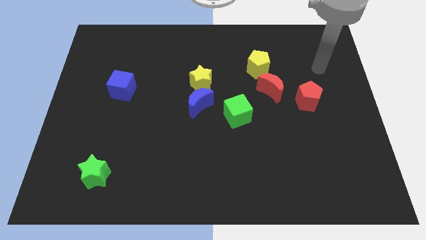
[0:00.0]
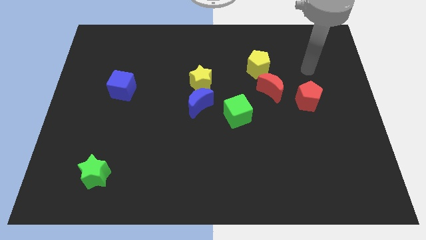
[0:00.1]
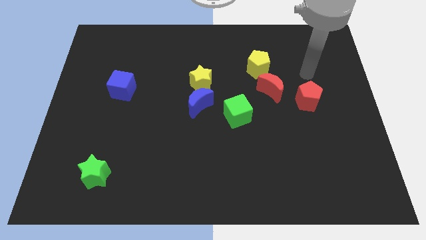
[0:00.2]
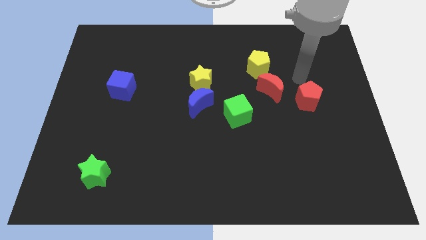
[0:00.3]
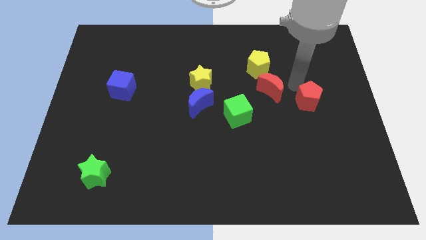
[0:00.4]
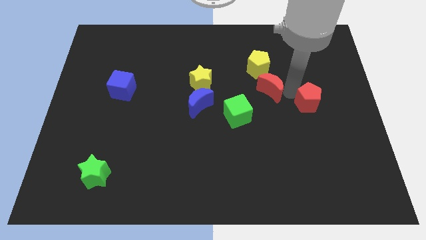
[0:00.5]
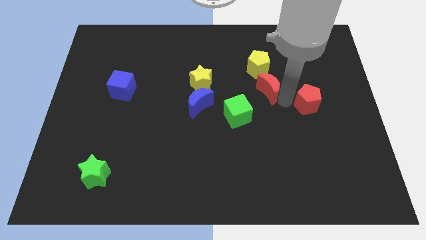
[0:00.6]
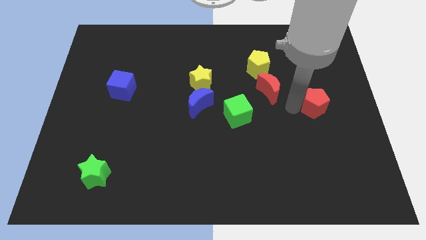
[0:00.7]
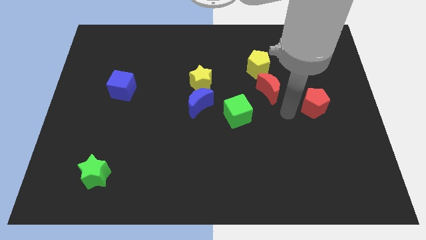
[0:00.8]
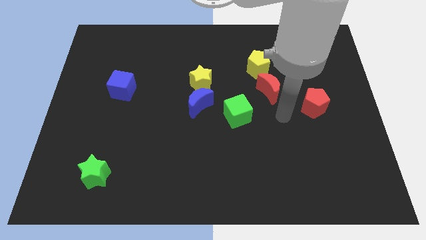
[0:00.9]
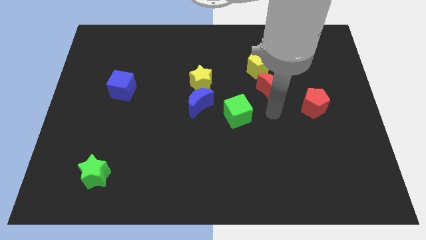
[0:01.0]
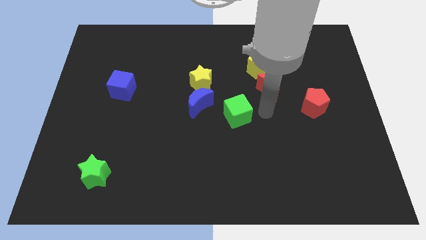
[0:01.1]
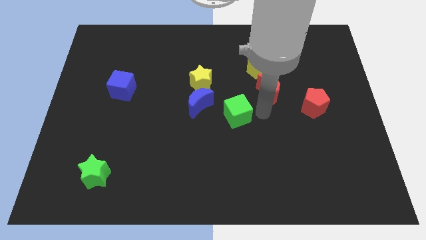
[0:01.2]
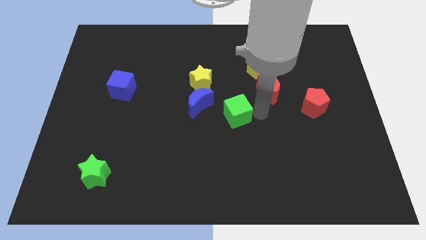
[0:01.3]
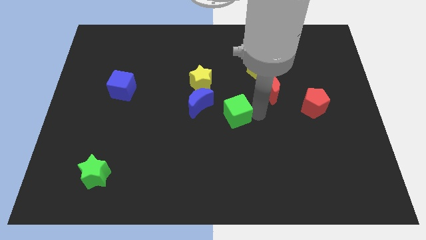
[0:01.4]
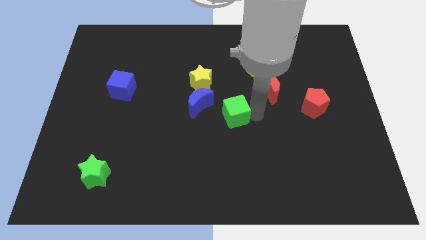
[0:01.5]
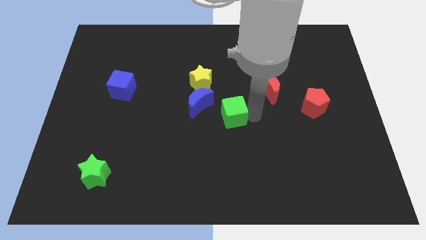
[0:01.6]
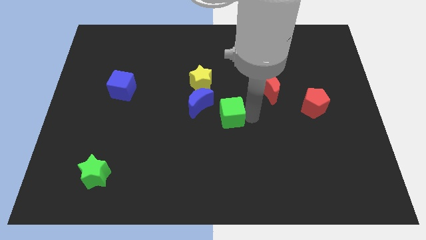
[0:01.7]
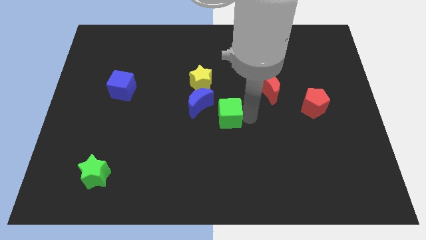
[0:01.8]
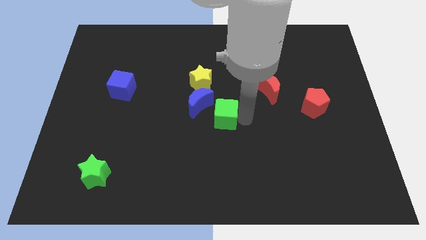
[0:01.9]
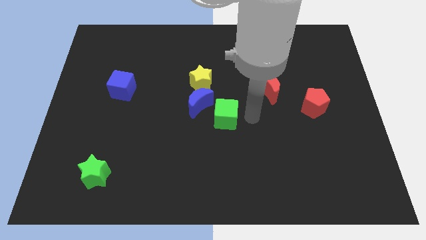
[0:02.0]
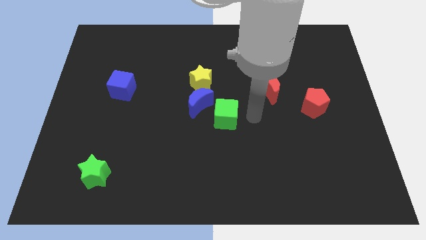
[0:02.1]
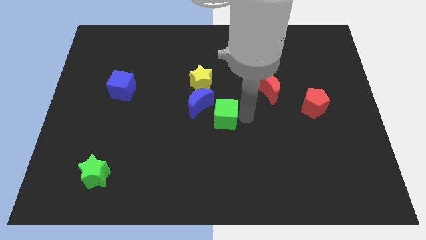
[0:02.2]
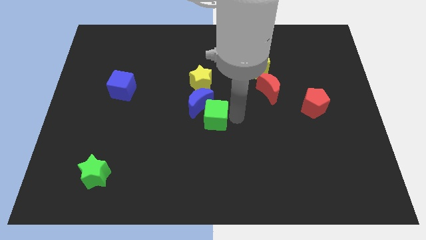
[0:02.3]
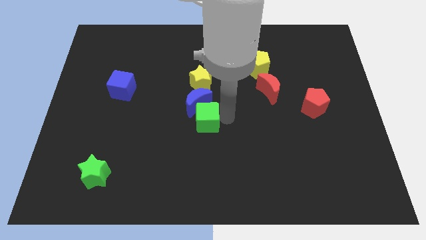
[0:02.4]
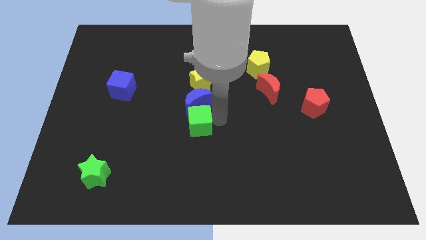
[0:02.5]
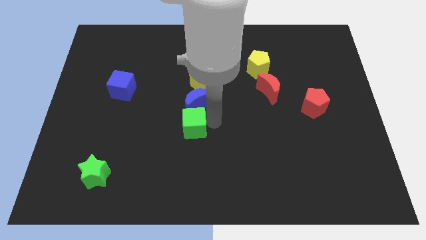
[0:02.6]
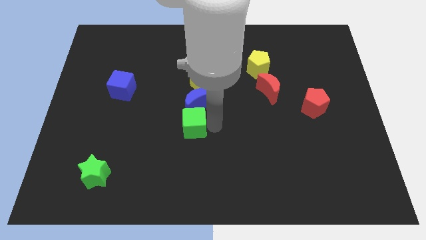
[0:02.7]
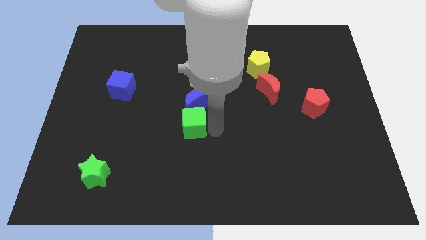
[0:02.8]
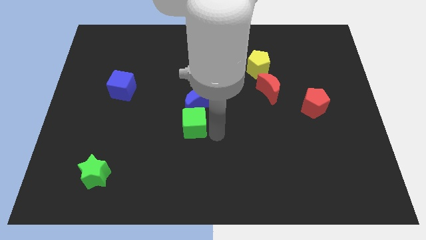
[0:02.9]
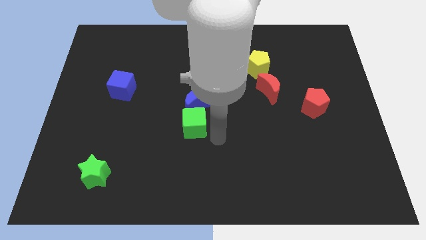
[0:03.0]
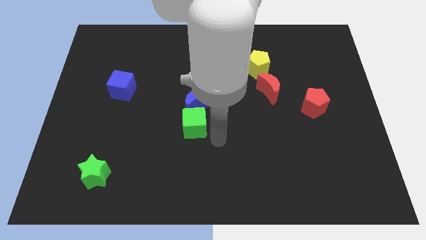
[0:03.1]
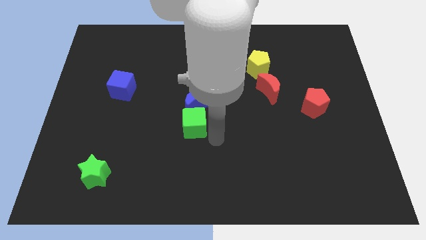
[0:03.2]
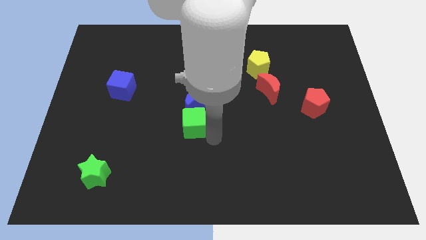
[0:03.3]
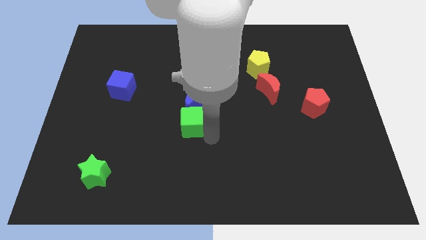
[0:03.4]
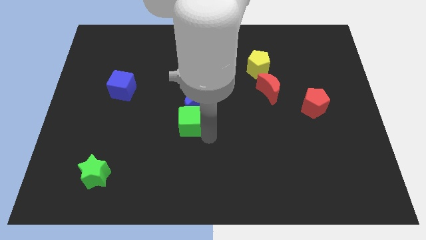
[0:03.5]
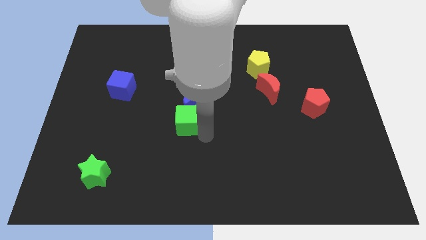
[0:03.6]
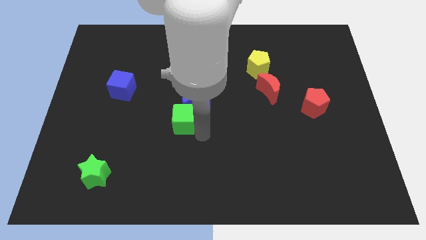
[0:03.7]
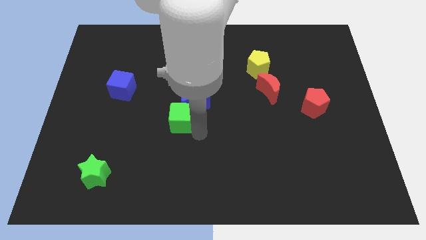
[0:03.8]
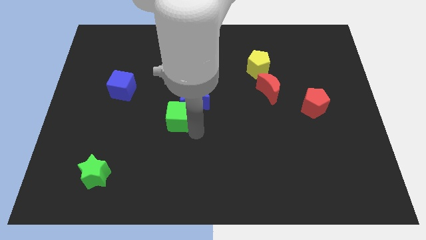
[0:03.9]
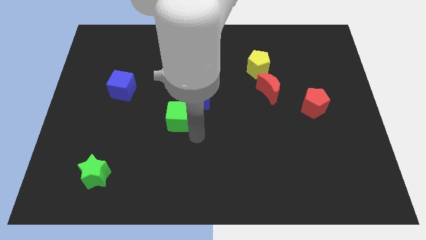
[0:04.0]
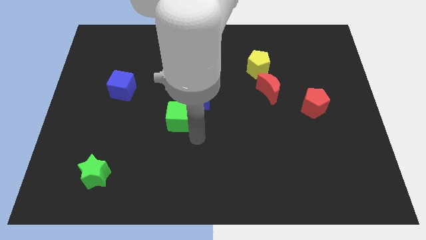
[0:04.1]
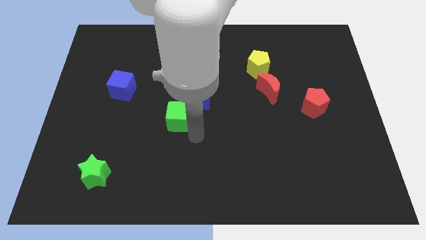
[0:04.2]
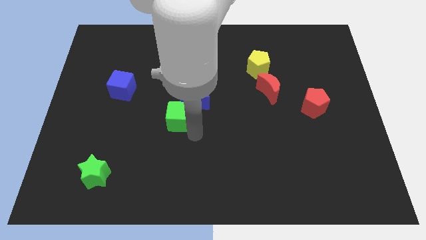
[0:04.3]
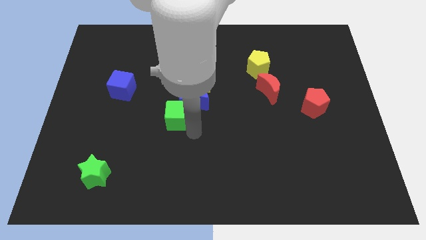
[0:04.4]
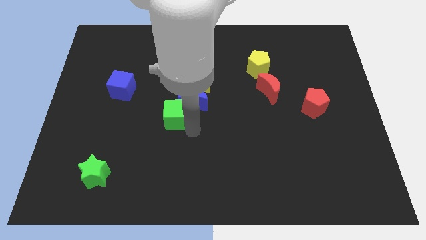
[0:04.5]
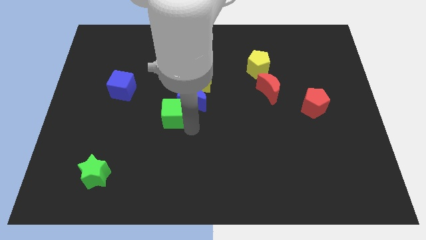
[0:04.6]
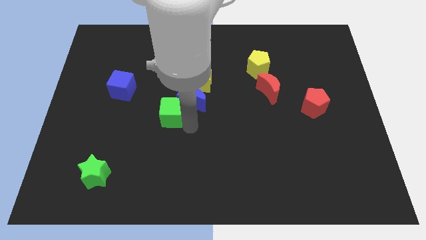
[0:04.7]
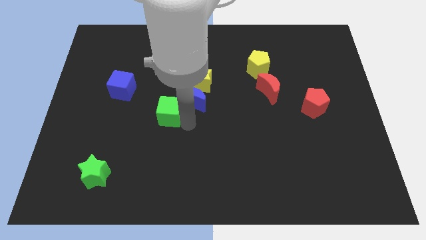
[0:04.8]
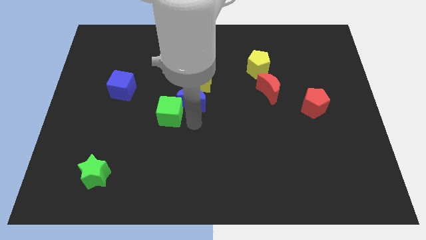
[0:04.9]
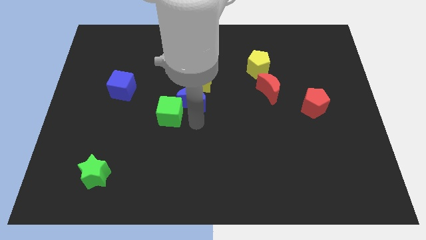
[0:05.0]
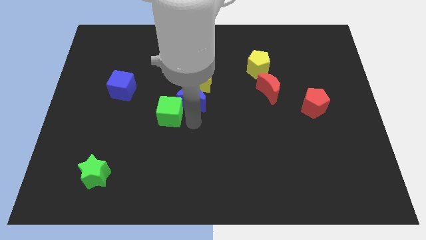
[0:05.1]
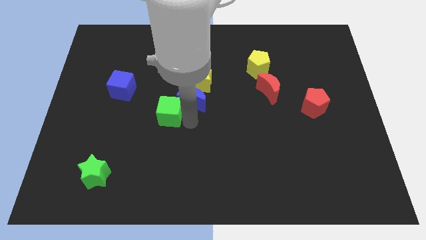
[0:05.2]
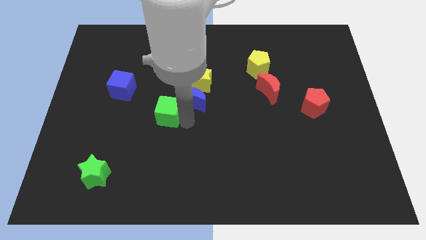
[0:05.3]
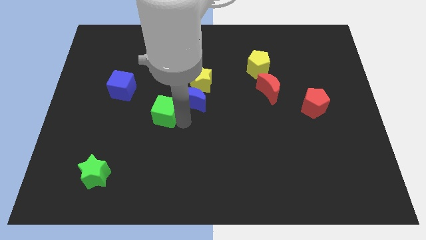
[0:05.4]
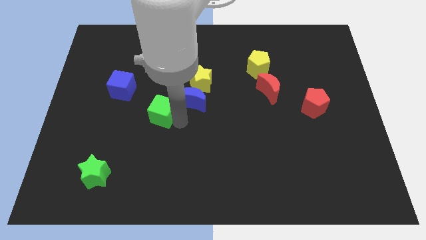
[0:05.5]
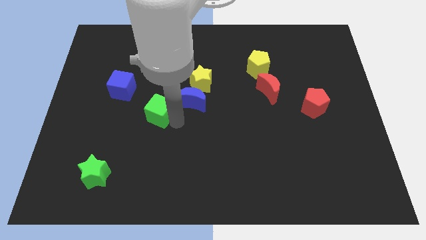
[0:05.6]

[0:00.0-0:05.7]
push the green cube diagonally down and to the right of the blue cube

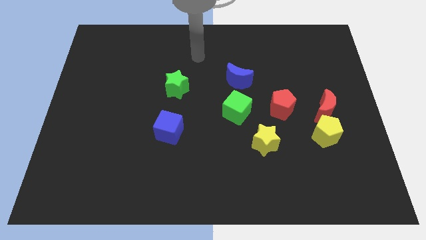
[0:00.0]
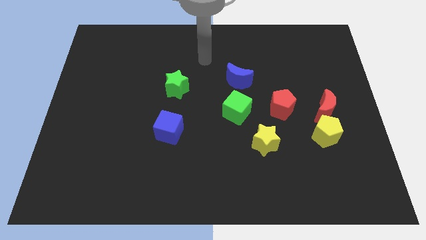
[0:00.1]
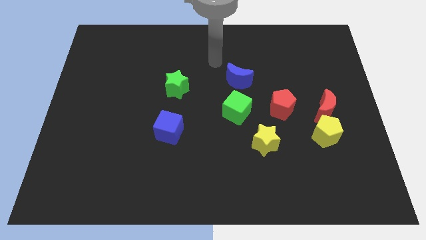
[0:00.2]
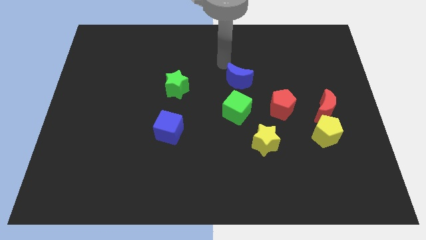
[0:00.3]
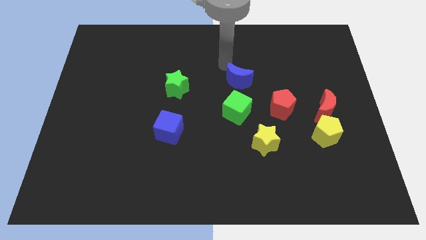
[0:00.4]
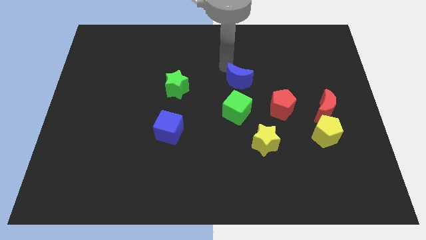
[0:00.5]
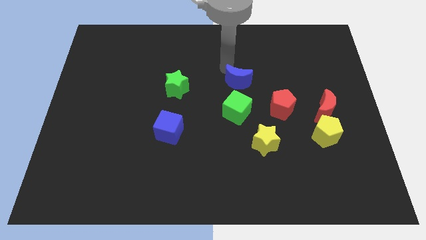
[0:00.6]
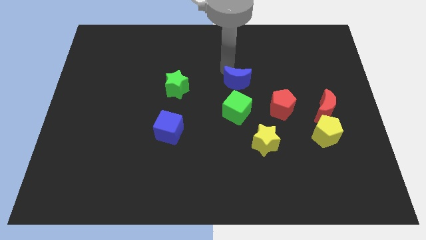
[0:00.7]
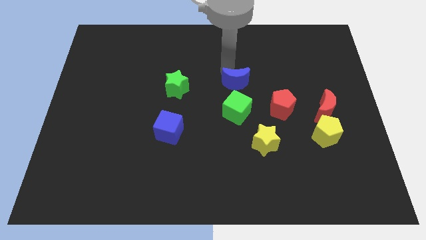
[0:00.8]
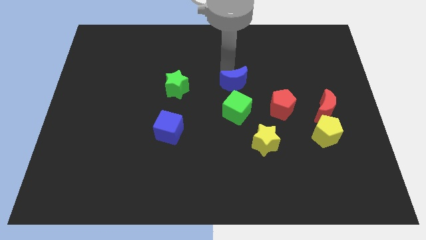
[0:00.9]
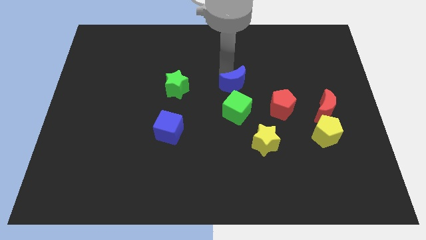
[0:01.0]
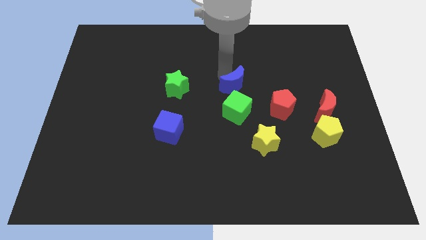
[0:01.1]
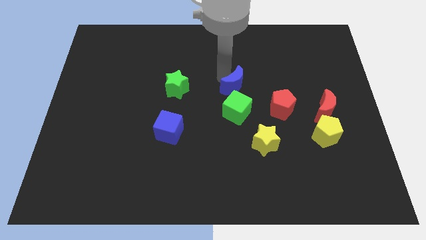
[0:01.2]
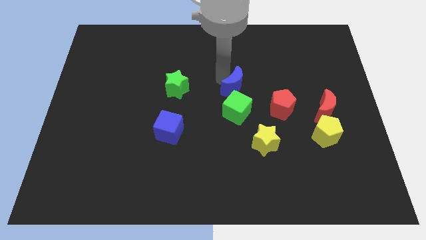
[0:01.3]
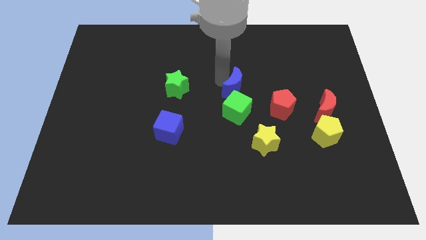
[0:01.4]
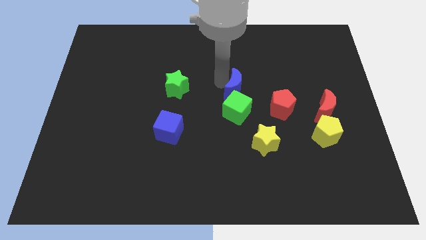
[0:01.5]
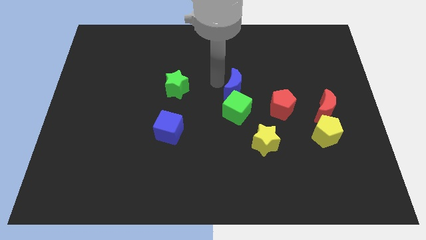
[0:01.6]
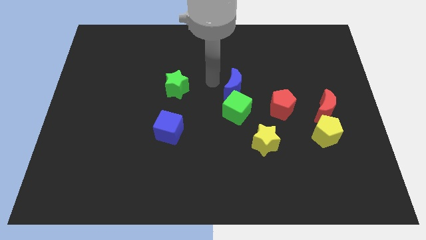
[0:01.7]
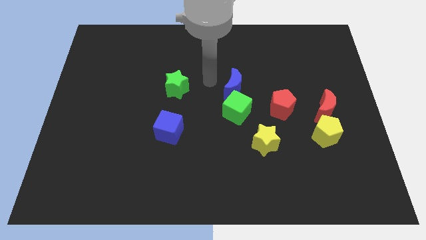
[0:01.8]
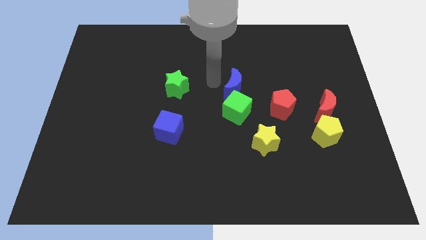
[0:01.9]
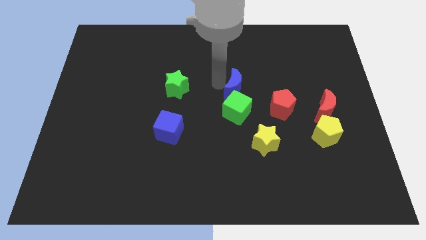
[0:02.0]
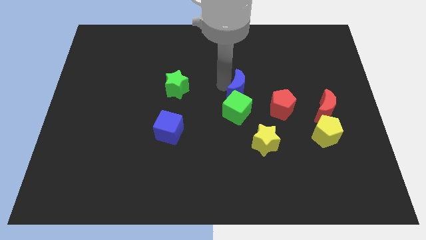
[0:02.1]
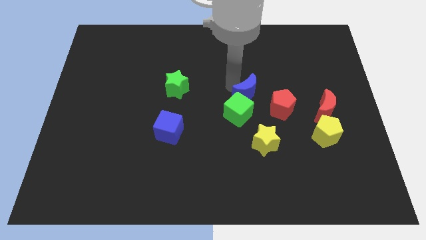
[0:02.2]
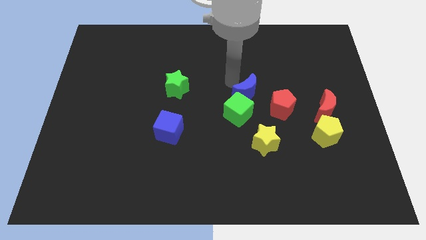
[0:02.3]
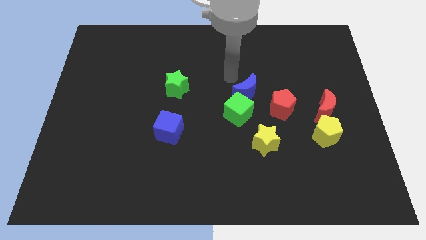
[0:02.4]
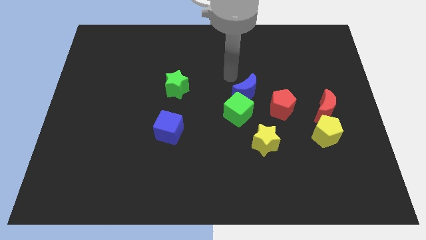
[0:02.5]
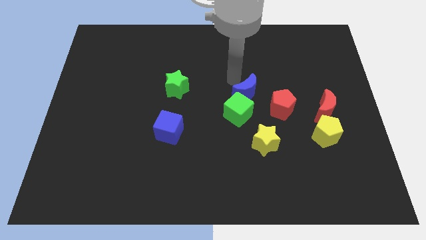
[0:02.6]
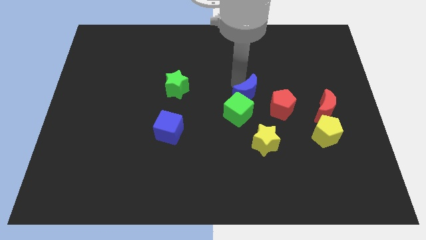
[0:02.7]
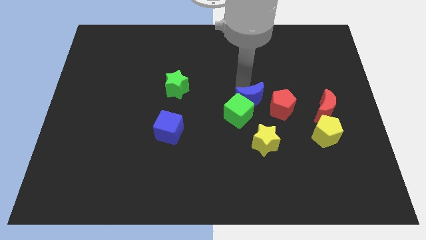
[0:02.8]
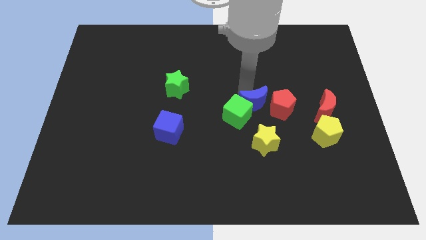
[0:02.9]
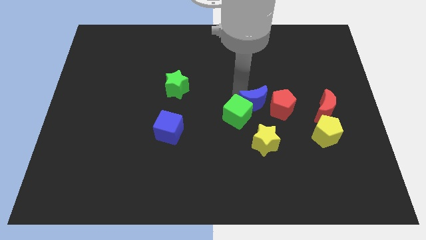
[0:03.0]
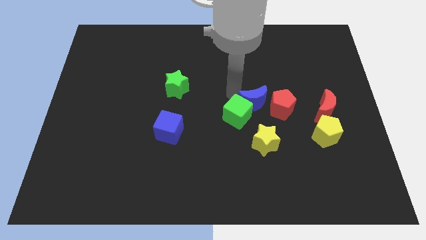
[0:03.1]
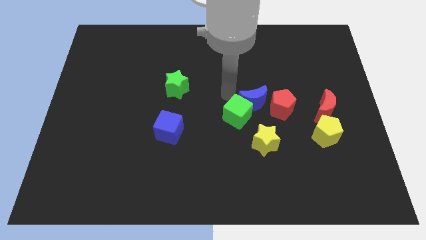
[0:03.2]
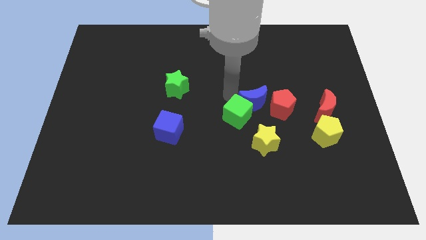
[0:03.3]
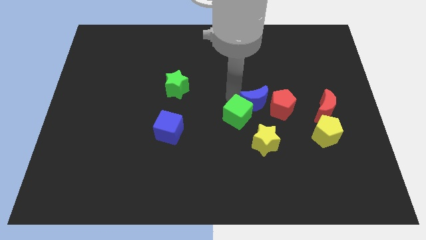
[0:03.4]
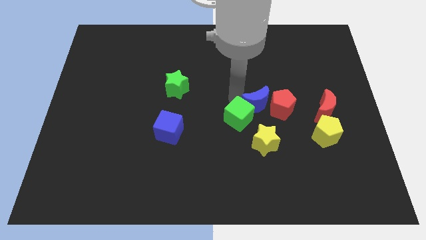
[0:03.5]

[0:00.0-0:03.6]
put the blue moon to the left of the red moon
